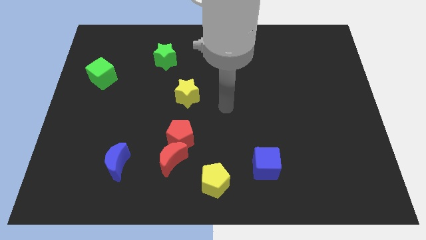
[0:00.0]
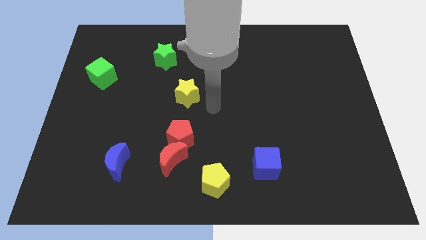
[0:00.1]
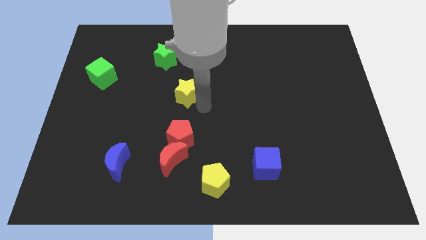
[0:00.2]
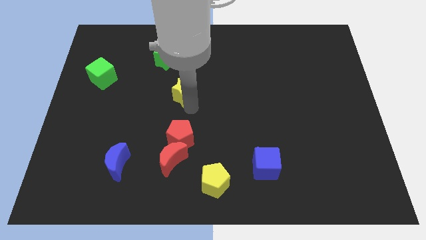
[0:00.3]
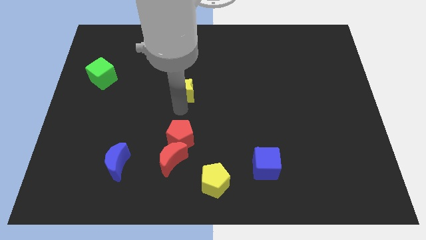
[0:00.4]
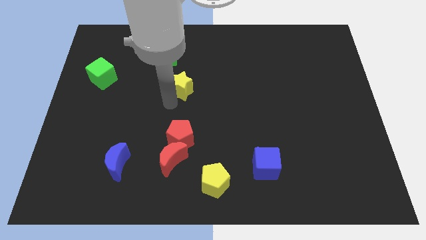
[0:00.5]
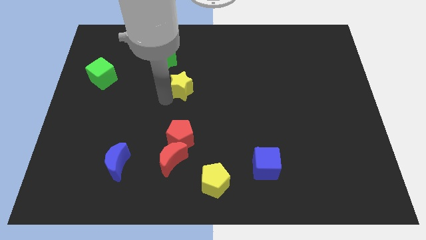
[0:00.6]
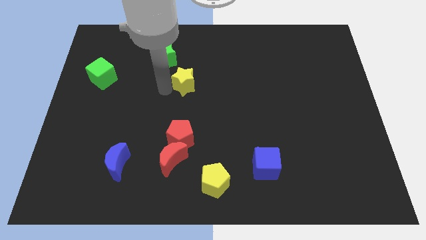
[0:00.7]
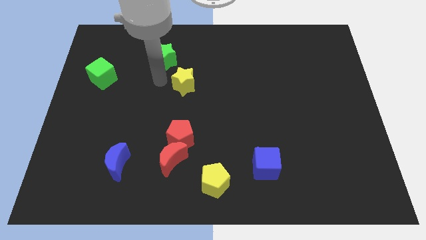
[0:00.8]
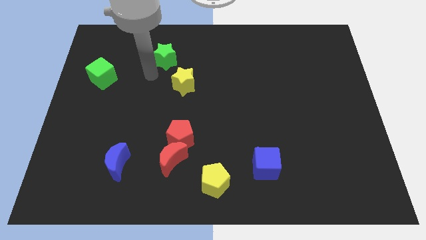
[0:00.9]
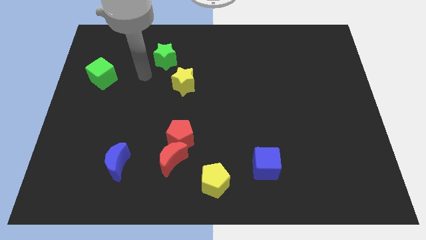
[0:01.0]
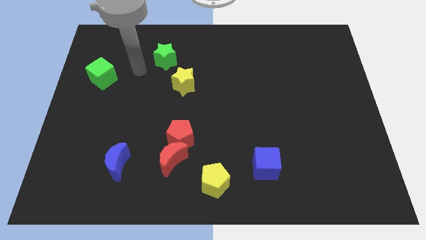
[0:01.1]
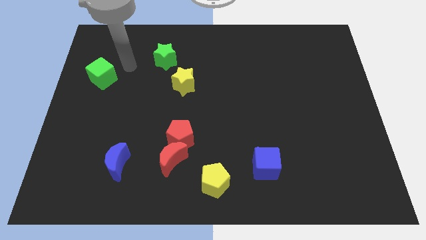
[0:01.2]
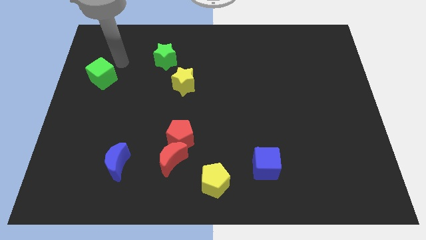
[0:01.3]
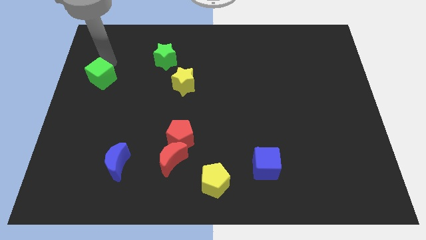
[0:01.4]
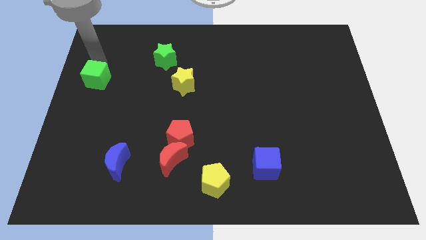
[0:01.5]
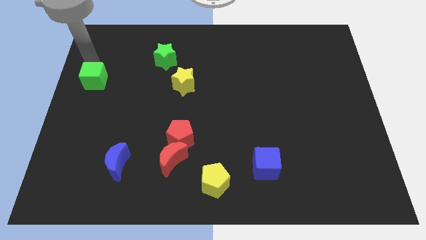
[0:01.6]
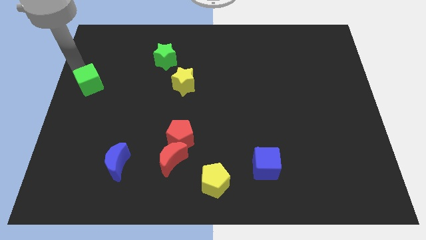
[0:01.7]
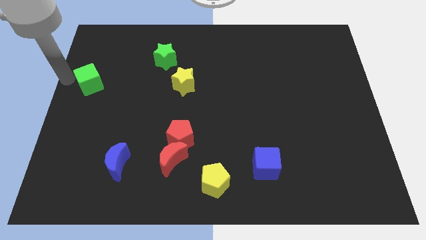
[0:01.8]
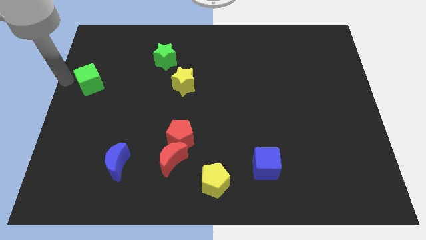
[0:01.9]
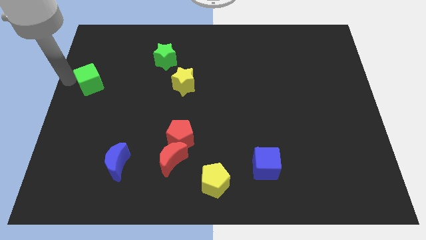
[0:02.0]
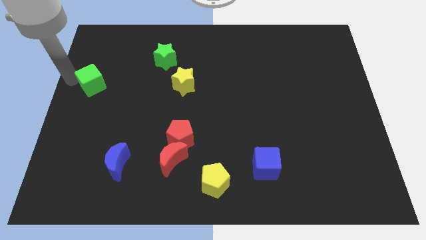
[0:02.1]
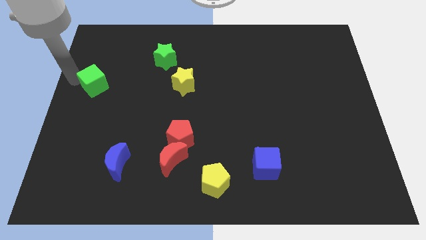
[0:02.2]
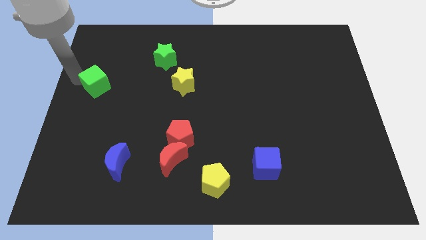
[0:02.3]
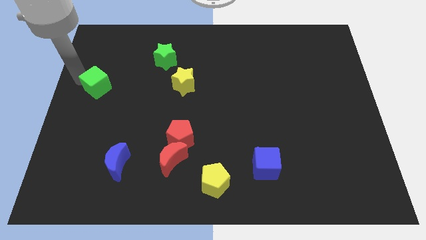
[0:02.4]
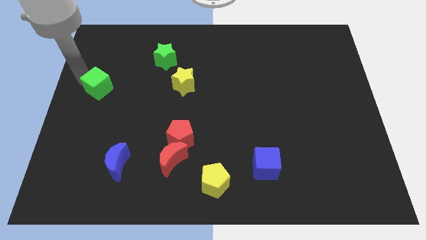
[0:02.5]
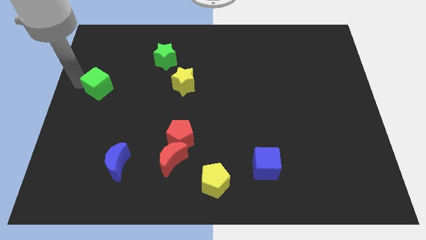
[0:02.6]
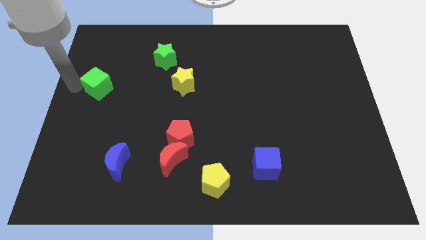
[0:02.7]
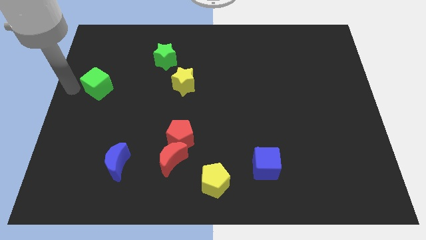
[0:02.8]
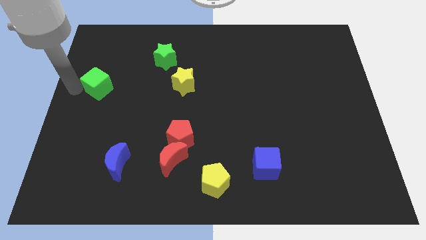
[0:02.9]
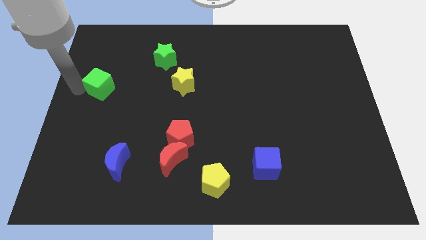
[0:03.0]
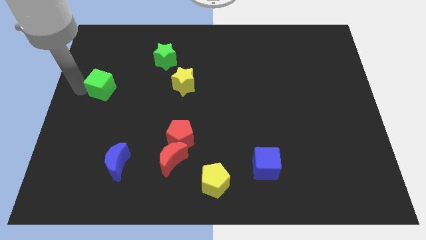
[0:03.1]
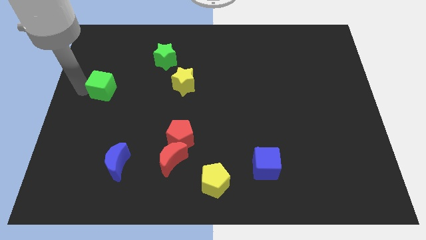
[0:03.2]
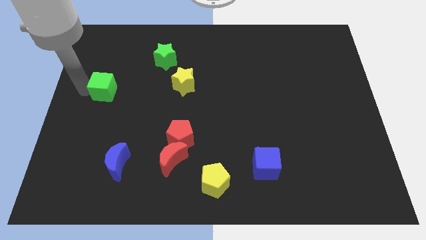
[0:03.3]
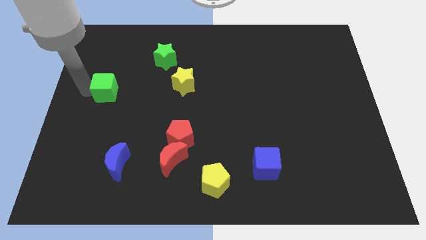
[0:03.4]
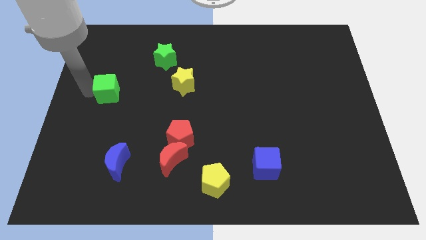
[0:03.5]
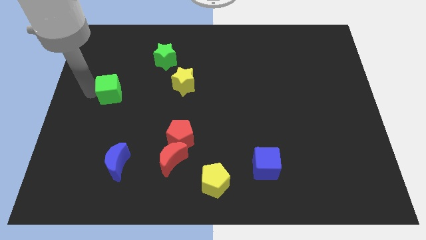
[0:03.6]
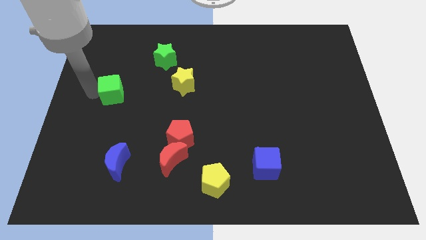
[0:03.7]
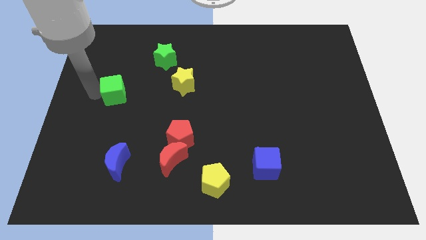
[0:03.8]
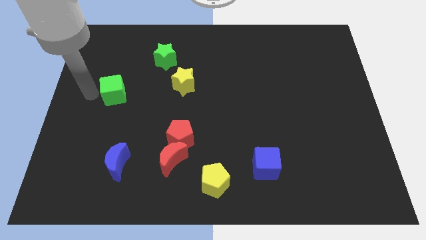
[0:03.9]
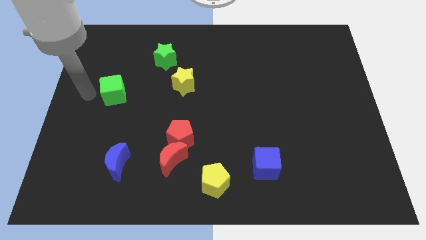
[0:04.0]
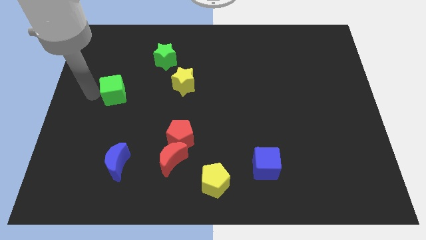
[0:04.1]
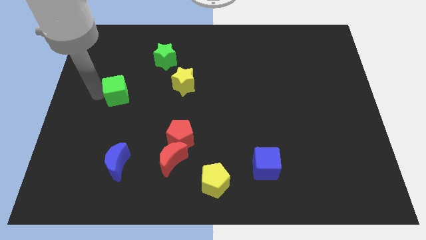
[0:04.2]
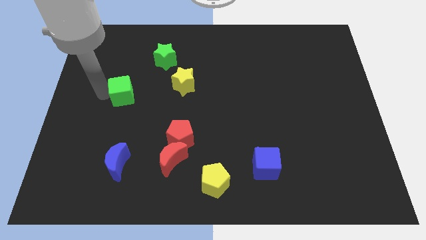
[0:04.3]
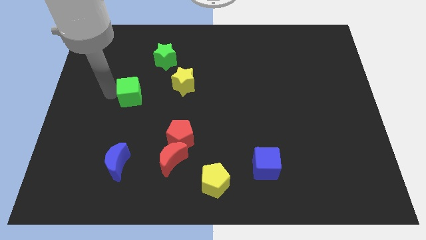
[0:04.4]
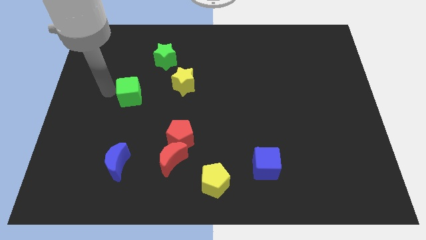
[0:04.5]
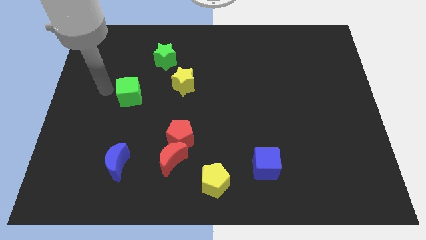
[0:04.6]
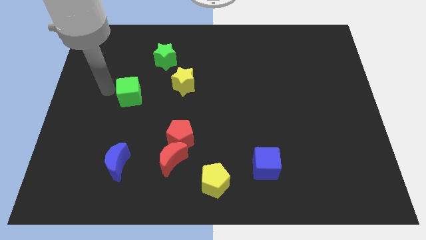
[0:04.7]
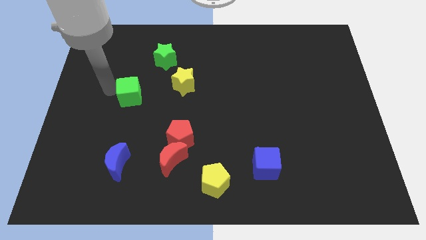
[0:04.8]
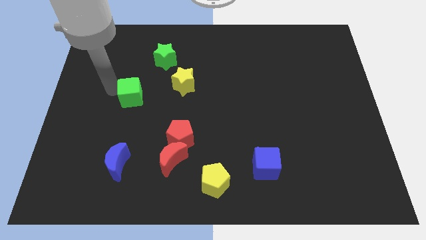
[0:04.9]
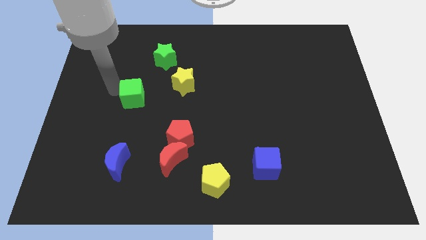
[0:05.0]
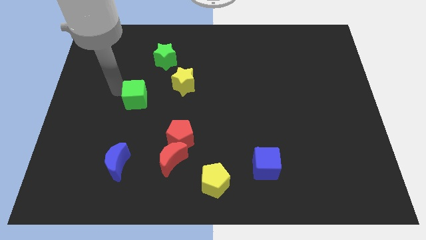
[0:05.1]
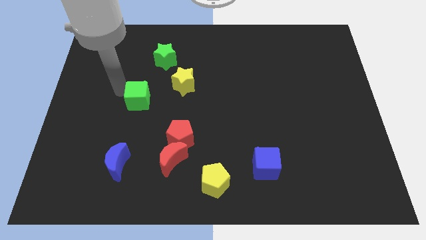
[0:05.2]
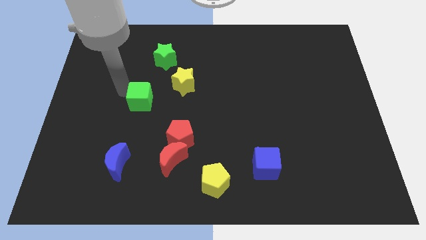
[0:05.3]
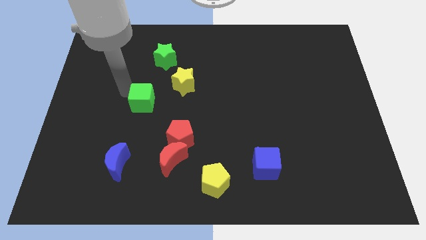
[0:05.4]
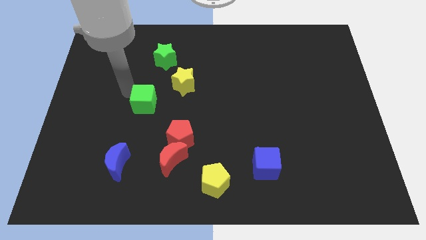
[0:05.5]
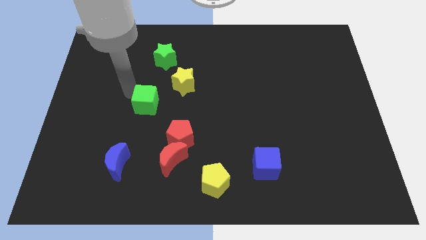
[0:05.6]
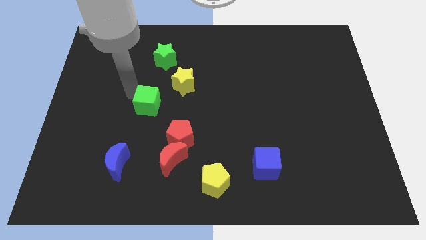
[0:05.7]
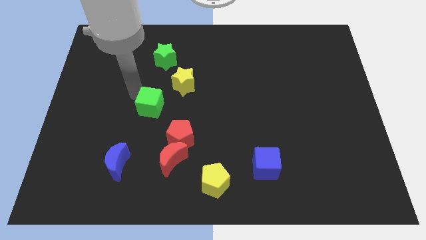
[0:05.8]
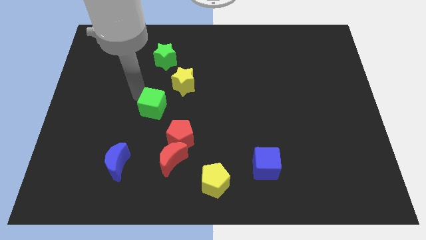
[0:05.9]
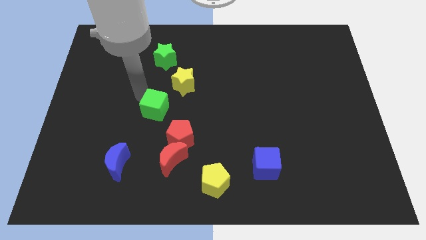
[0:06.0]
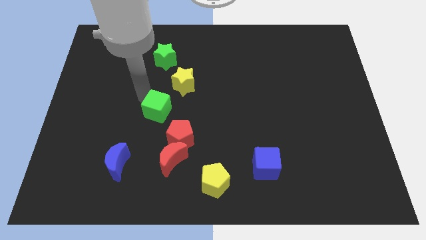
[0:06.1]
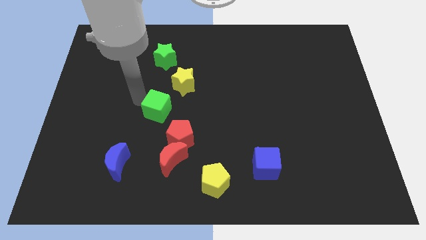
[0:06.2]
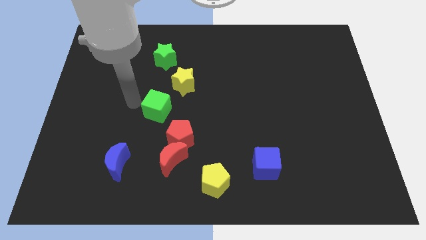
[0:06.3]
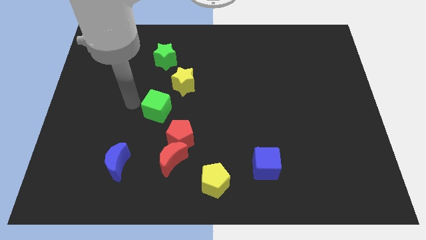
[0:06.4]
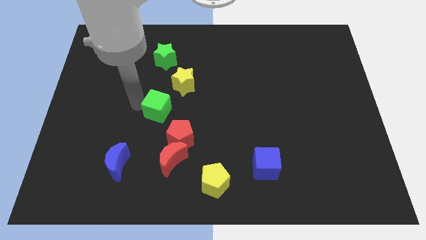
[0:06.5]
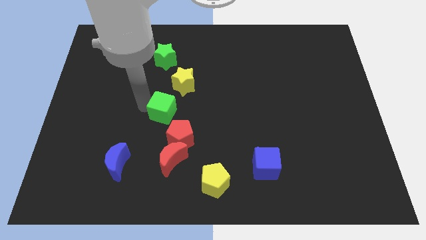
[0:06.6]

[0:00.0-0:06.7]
slide the green cube to the middle of the board

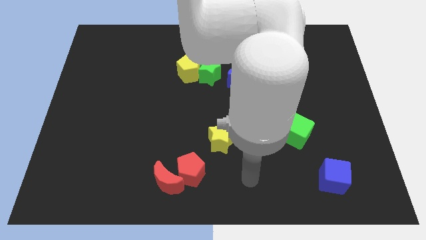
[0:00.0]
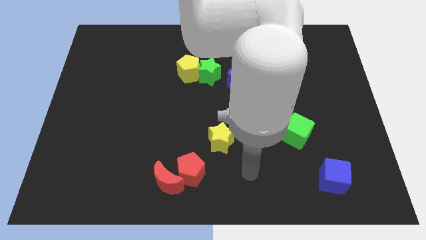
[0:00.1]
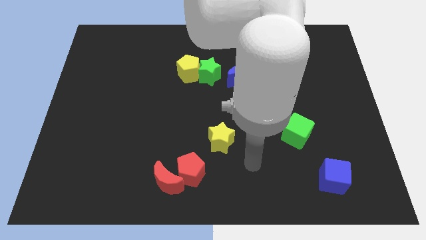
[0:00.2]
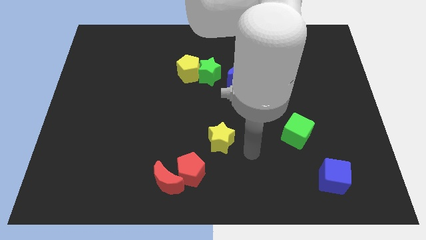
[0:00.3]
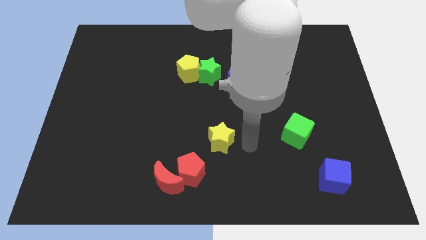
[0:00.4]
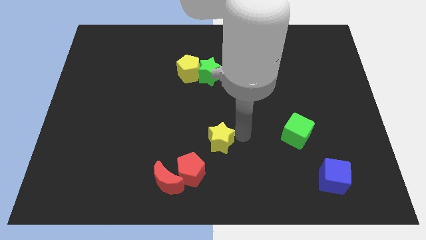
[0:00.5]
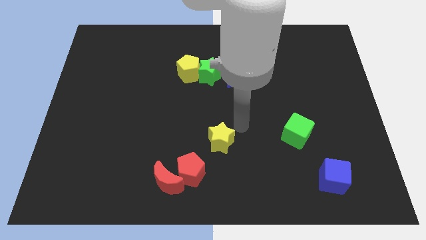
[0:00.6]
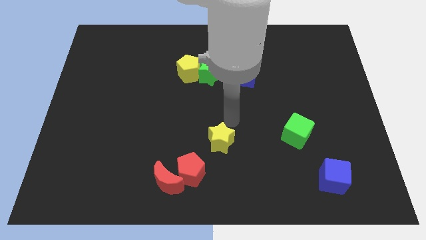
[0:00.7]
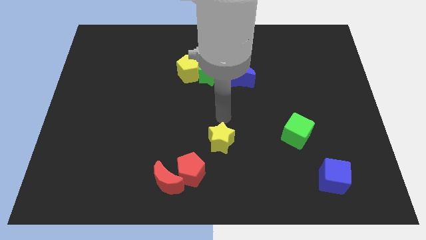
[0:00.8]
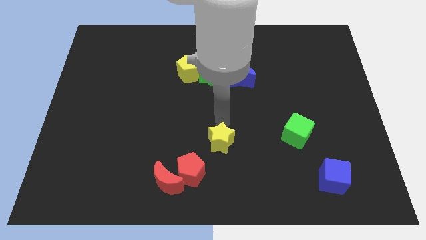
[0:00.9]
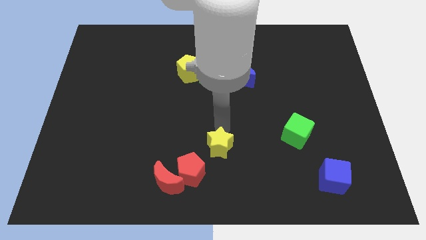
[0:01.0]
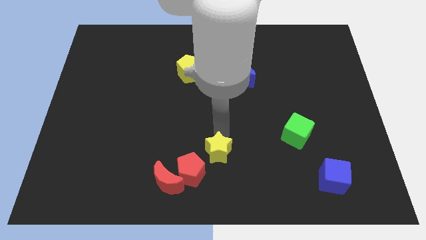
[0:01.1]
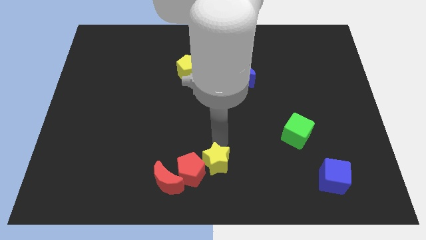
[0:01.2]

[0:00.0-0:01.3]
put the yellow star to the bottom

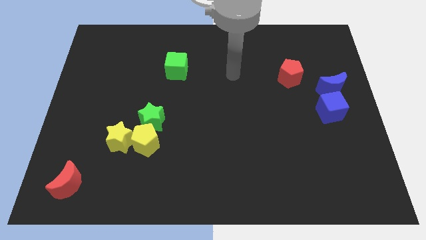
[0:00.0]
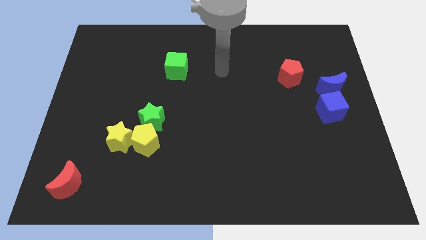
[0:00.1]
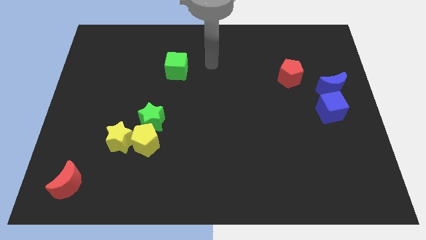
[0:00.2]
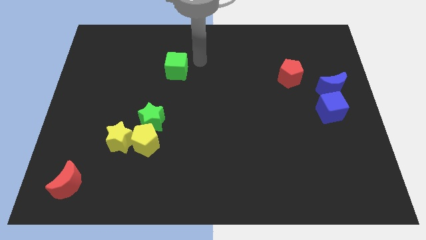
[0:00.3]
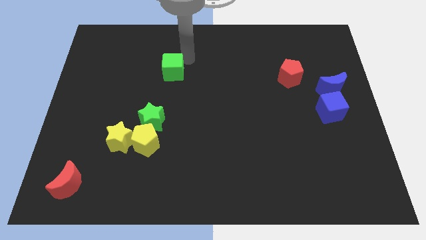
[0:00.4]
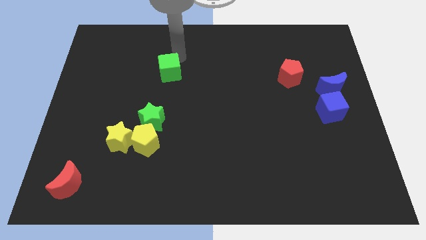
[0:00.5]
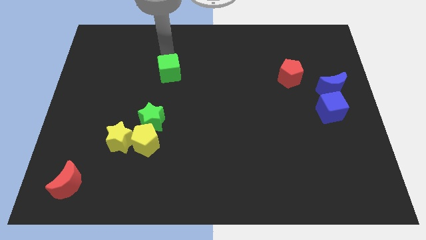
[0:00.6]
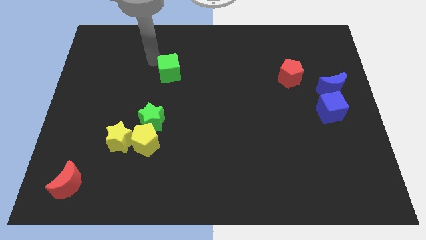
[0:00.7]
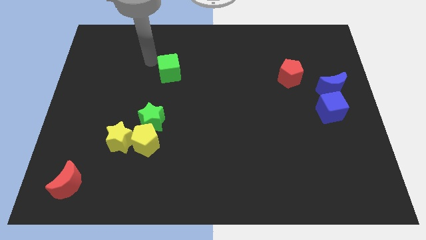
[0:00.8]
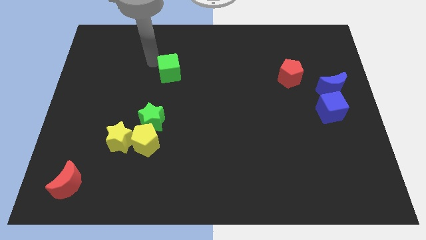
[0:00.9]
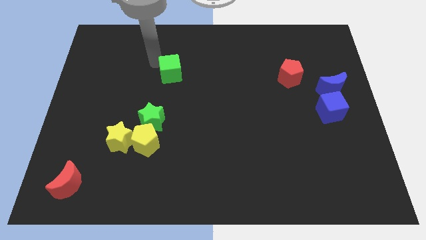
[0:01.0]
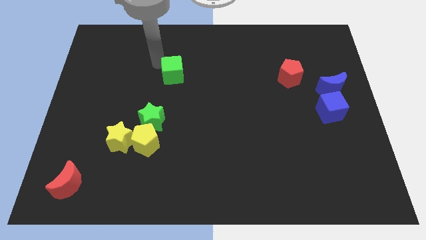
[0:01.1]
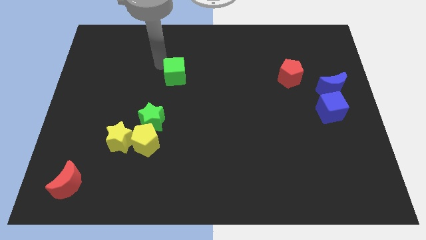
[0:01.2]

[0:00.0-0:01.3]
move the green cube to the center of the board
